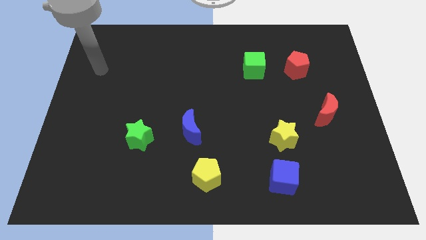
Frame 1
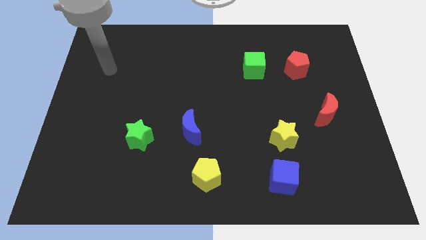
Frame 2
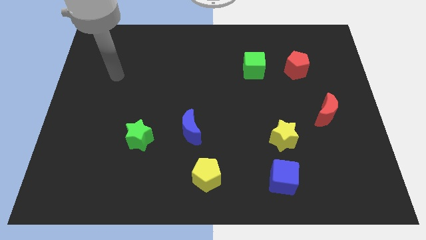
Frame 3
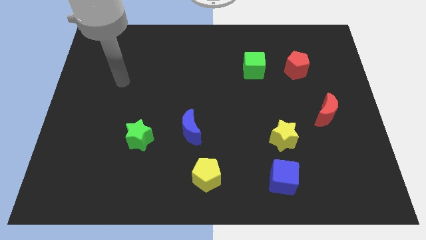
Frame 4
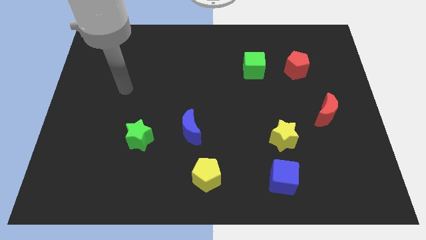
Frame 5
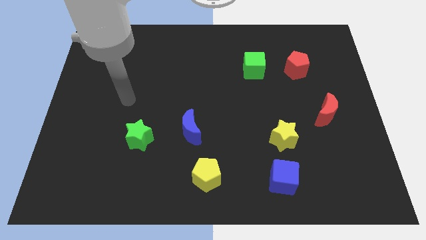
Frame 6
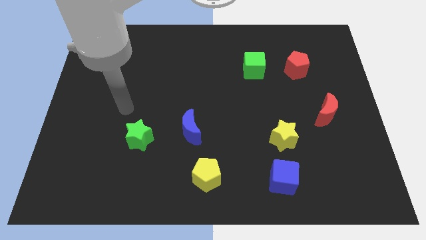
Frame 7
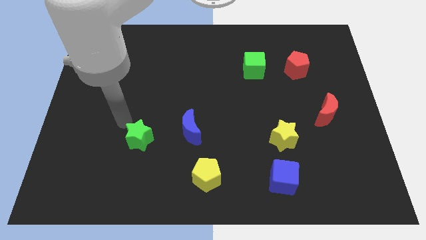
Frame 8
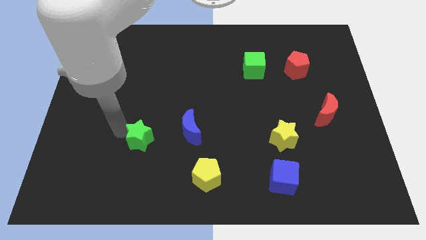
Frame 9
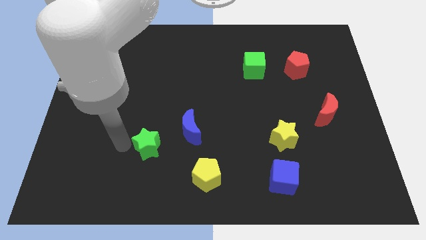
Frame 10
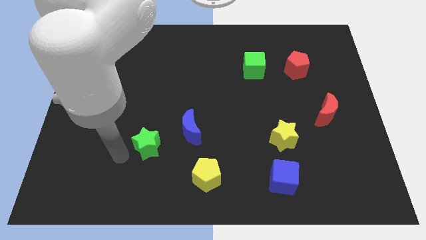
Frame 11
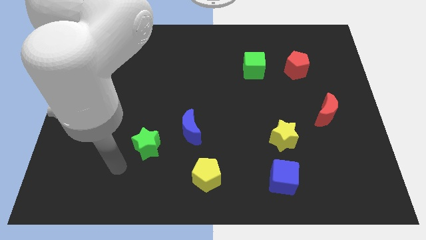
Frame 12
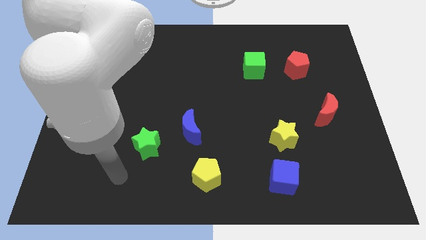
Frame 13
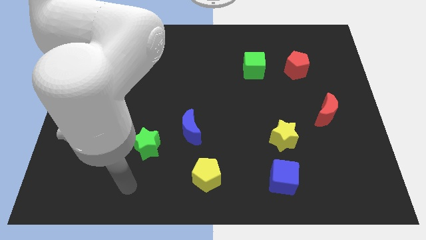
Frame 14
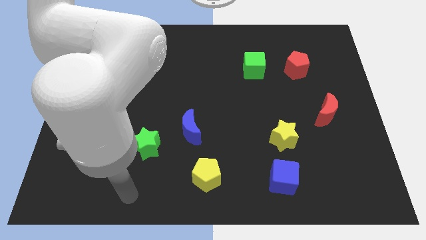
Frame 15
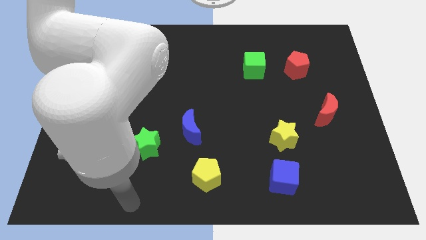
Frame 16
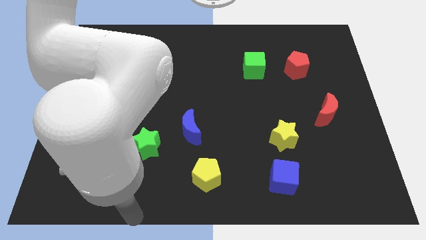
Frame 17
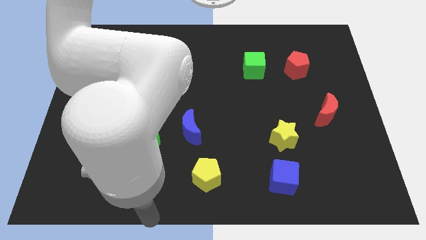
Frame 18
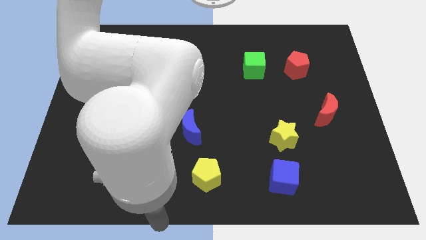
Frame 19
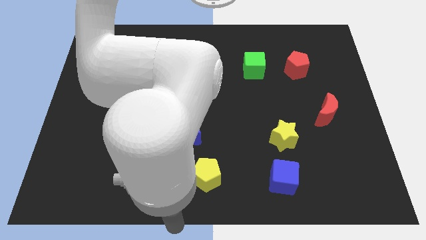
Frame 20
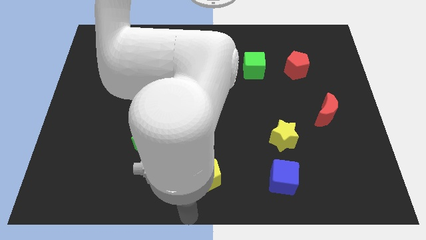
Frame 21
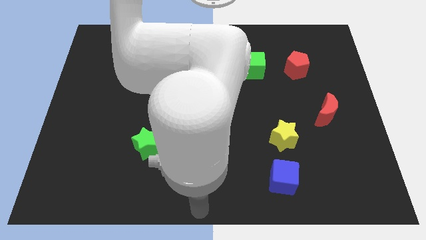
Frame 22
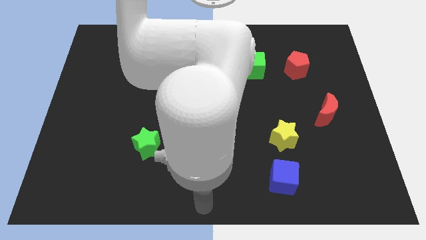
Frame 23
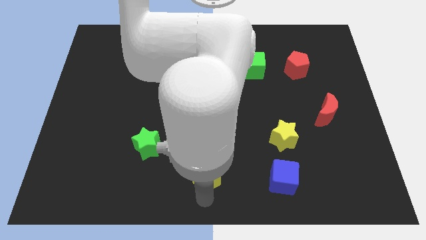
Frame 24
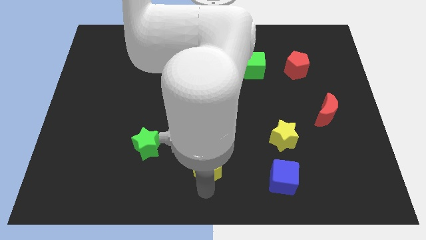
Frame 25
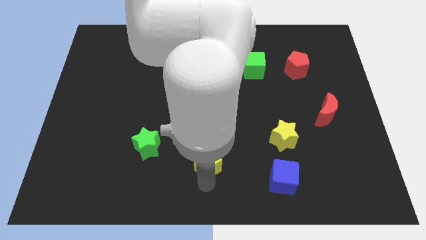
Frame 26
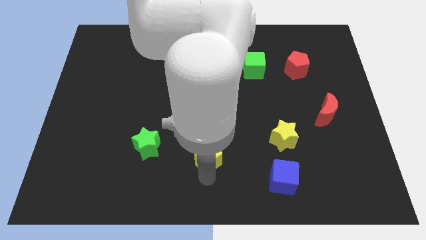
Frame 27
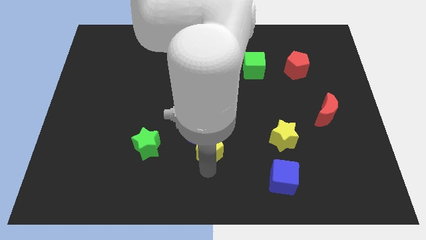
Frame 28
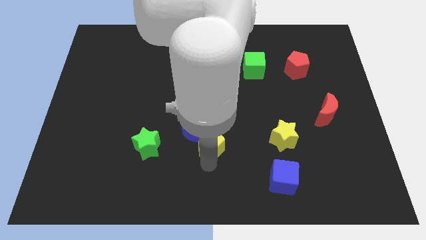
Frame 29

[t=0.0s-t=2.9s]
move the yellow pentagon up a bit

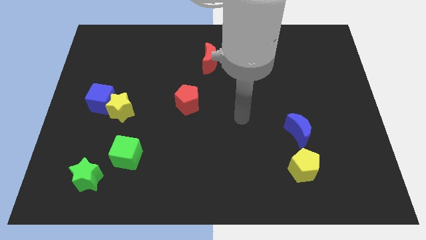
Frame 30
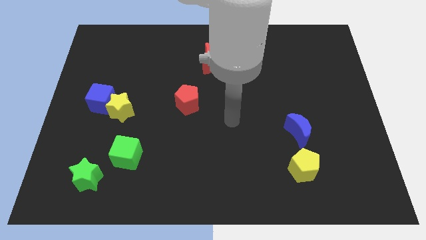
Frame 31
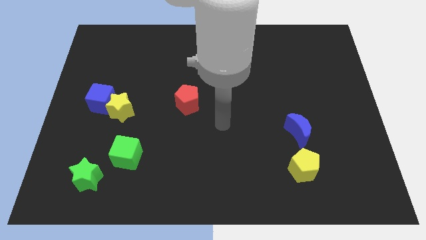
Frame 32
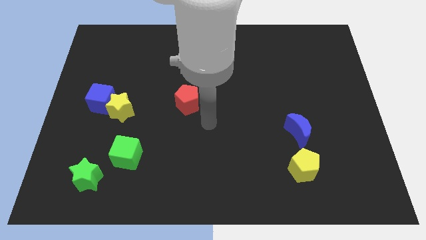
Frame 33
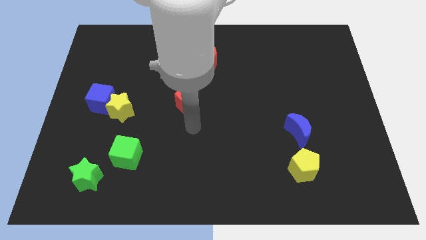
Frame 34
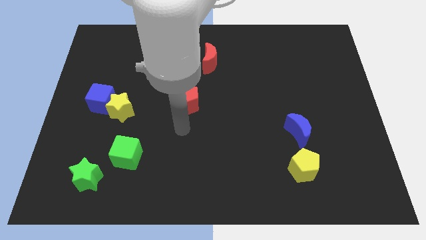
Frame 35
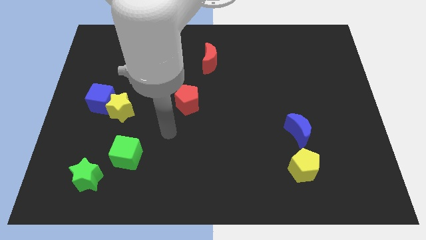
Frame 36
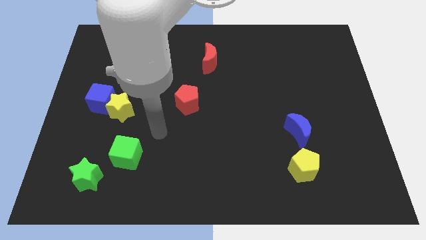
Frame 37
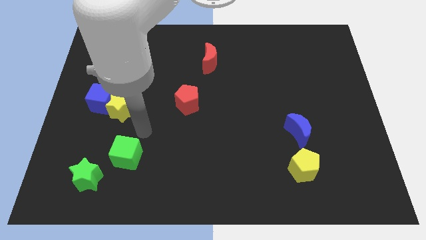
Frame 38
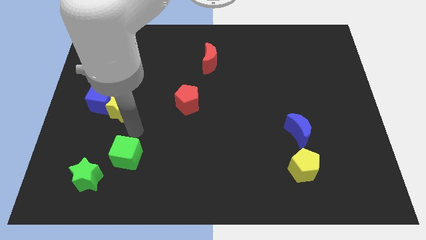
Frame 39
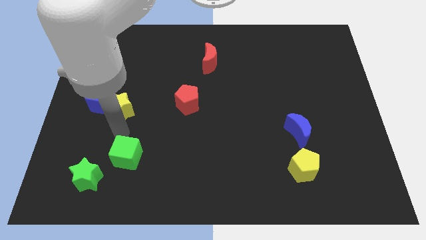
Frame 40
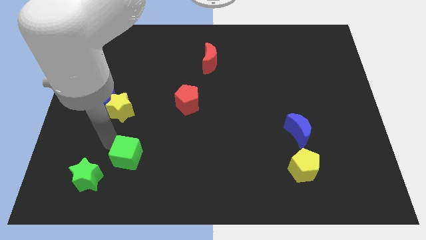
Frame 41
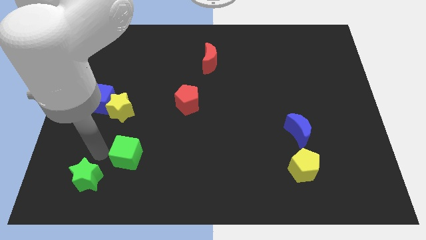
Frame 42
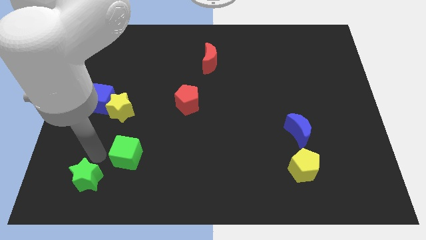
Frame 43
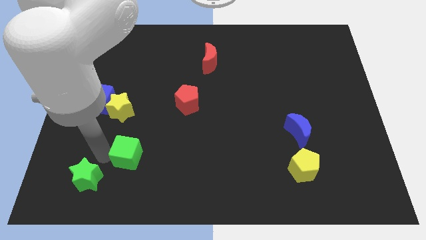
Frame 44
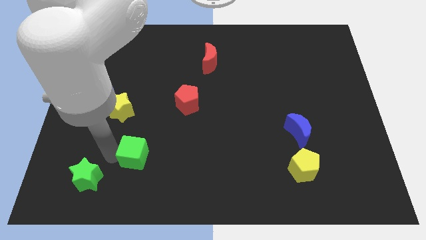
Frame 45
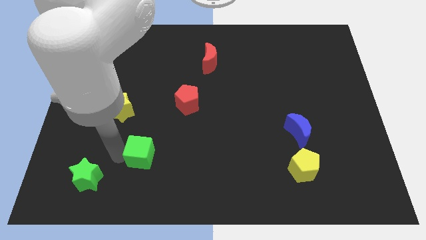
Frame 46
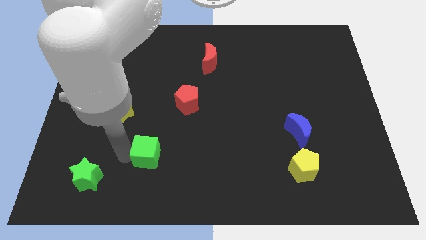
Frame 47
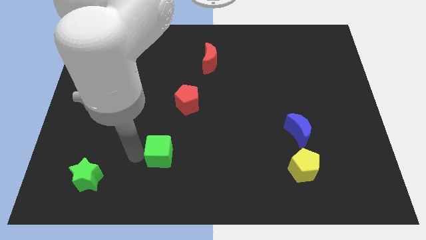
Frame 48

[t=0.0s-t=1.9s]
move the green cube to the right a little

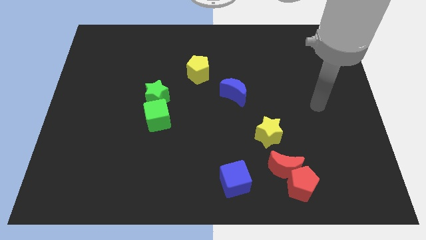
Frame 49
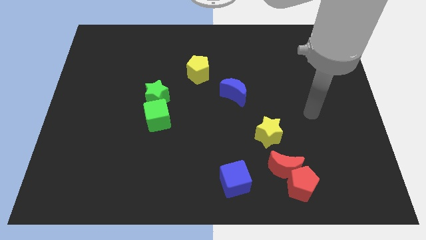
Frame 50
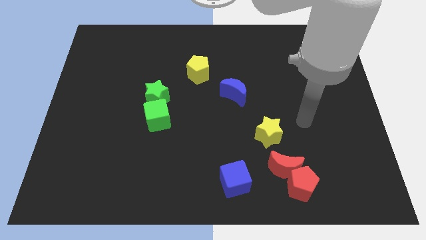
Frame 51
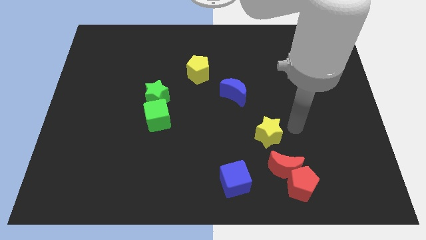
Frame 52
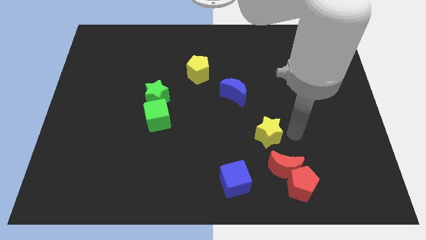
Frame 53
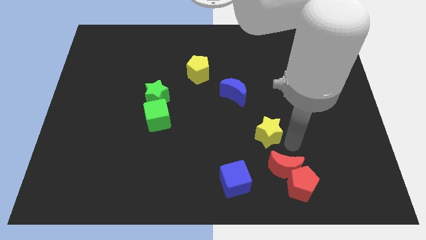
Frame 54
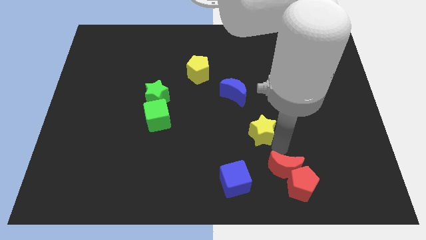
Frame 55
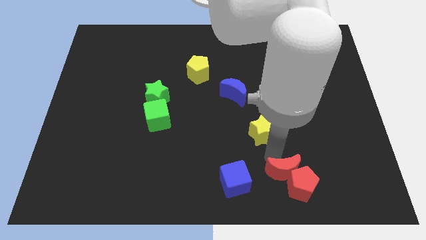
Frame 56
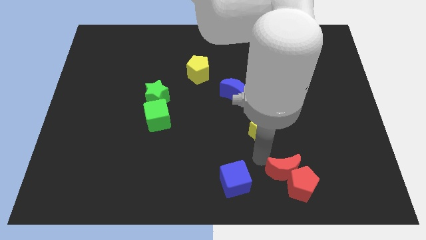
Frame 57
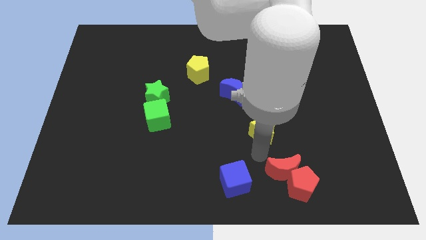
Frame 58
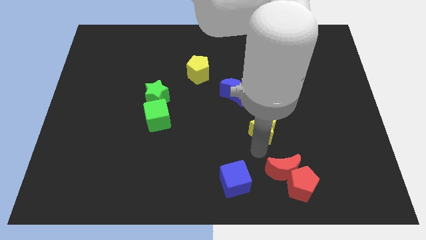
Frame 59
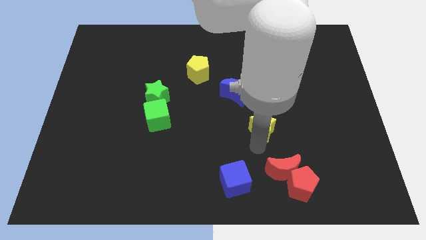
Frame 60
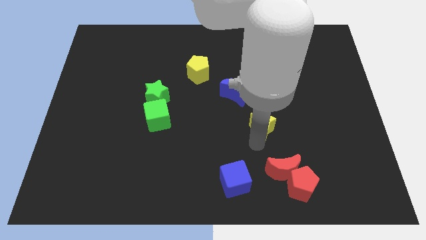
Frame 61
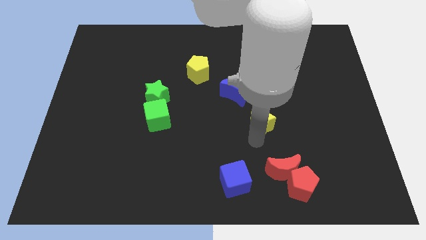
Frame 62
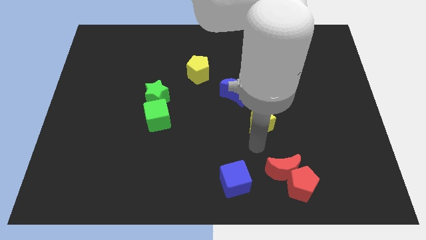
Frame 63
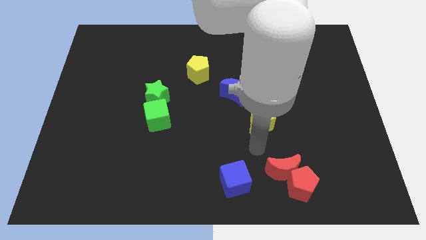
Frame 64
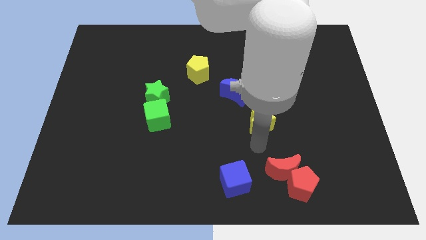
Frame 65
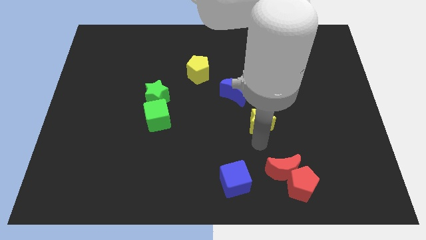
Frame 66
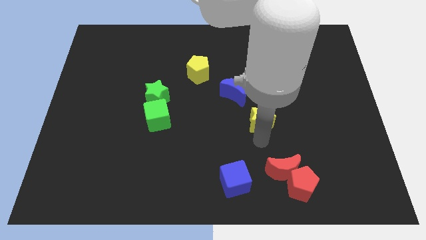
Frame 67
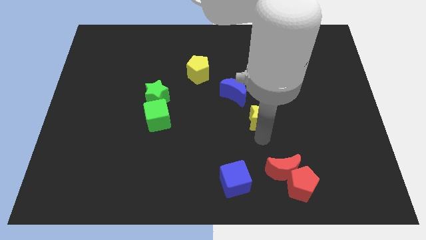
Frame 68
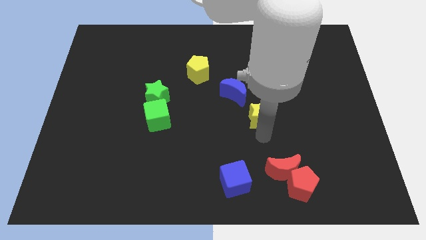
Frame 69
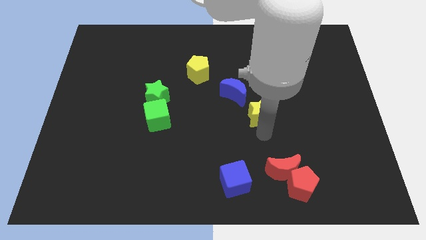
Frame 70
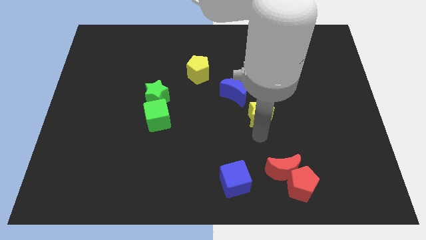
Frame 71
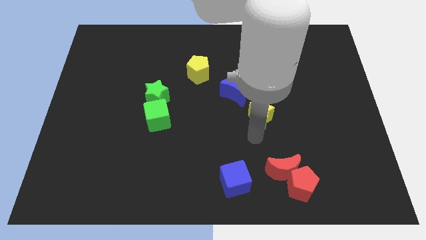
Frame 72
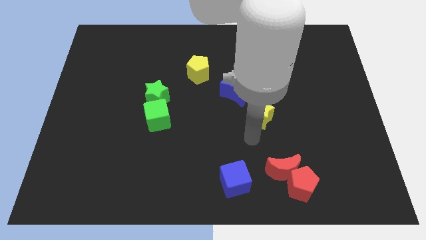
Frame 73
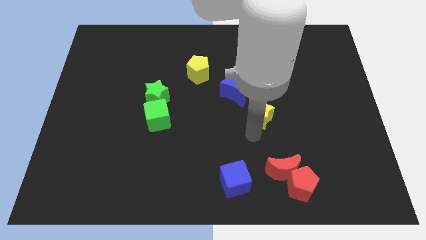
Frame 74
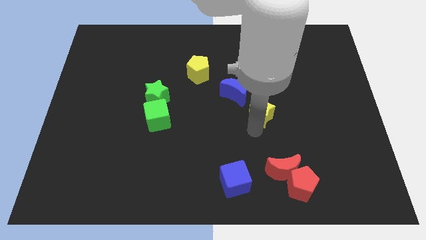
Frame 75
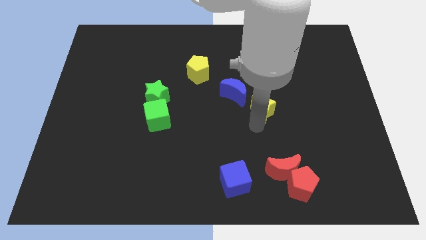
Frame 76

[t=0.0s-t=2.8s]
slightly move the yellow star upwards

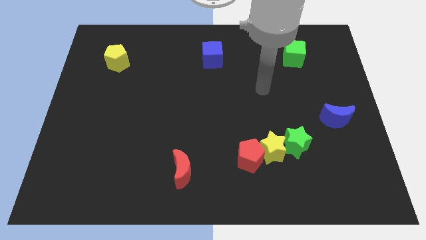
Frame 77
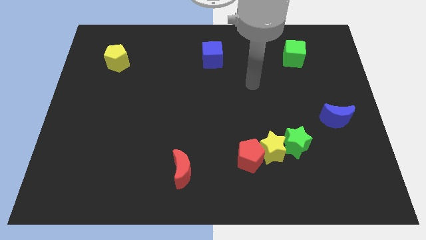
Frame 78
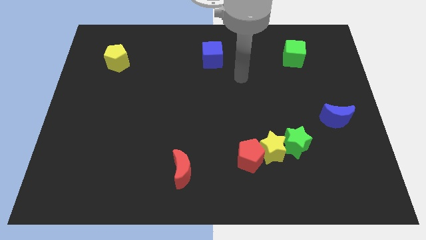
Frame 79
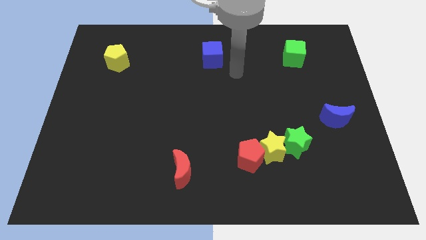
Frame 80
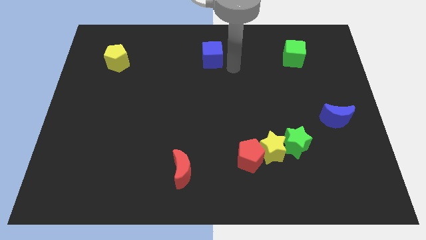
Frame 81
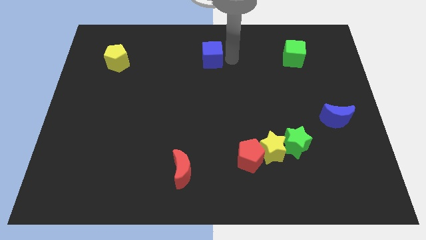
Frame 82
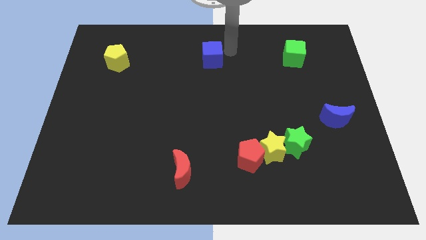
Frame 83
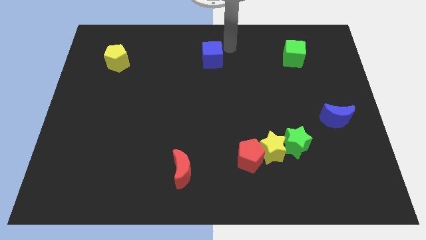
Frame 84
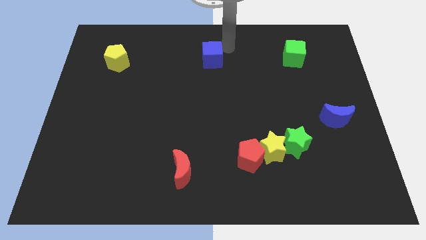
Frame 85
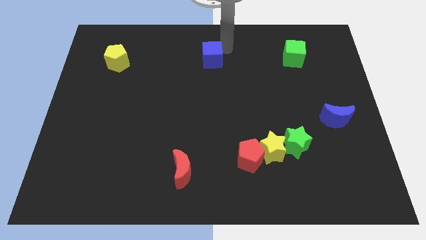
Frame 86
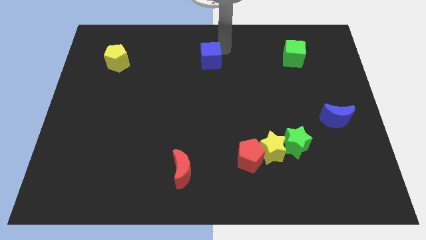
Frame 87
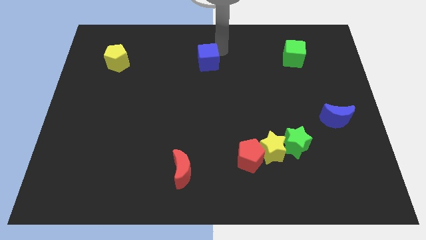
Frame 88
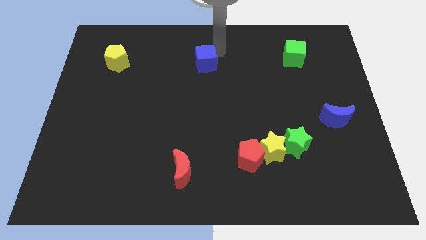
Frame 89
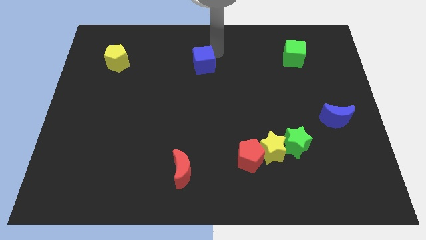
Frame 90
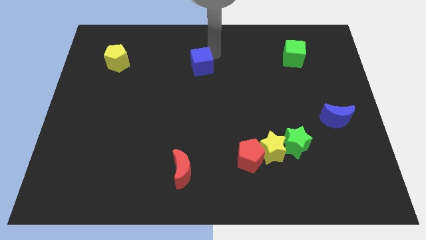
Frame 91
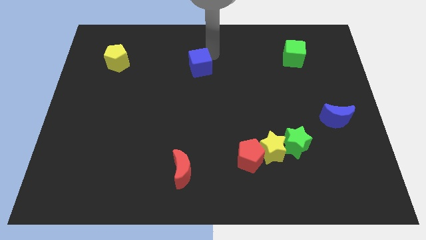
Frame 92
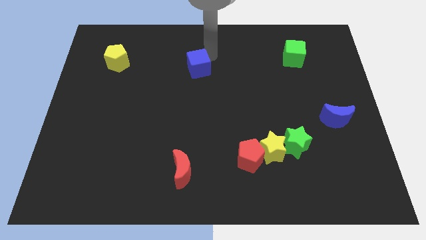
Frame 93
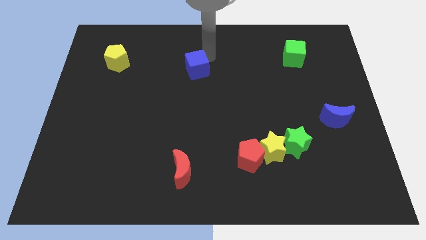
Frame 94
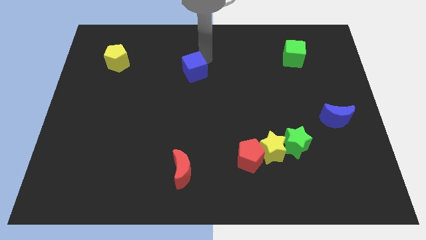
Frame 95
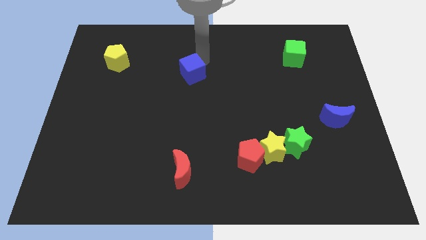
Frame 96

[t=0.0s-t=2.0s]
move the blue cube a bit downwards and left
